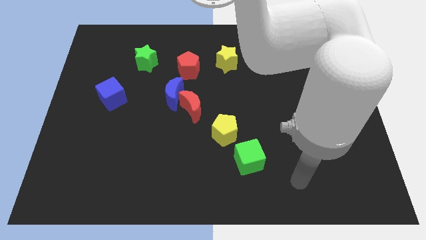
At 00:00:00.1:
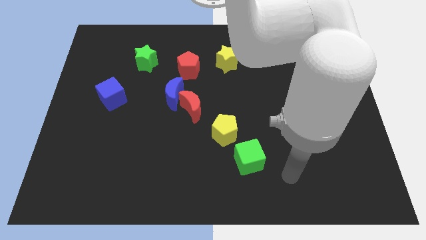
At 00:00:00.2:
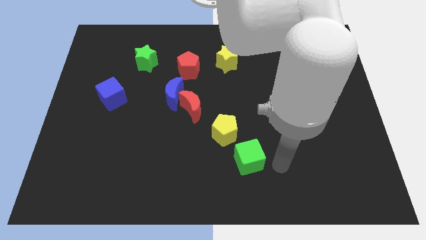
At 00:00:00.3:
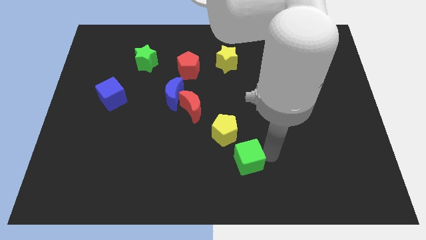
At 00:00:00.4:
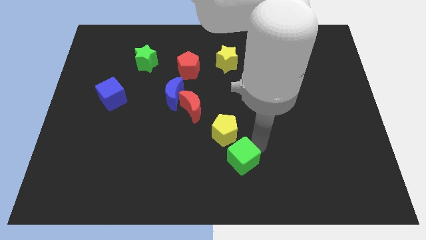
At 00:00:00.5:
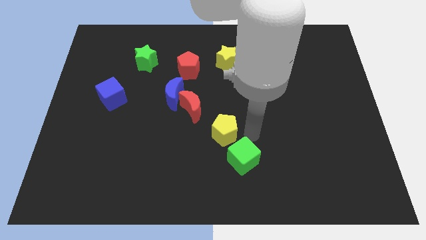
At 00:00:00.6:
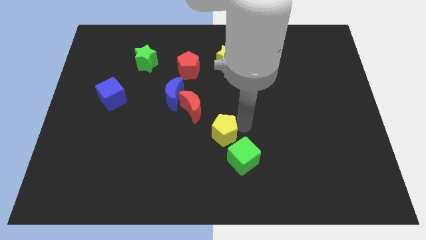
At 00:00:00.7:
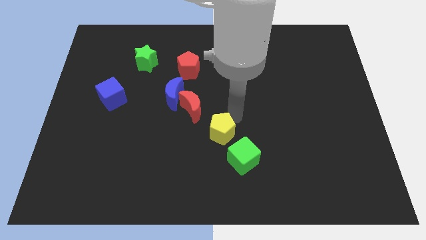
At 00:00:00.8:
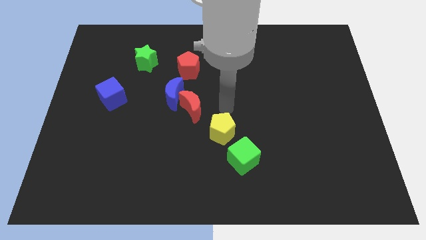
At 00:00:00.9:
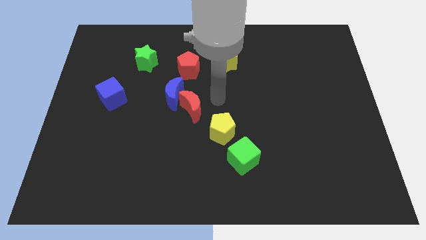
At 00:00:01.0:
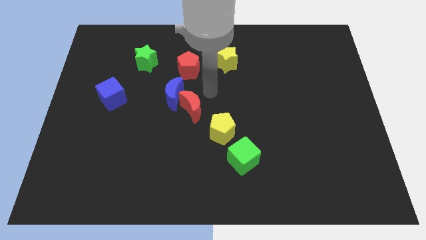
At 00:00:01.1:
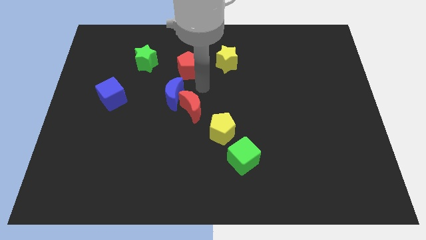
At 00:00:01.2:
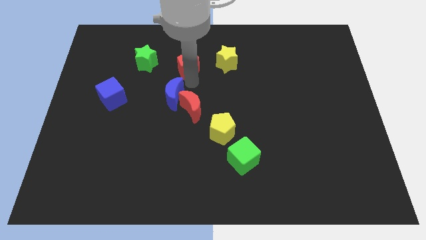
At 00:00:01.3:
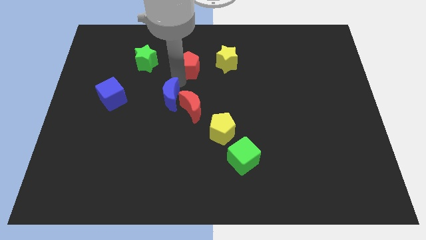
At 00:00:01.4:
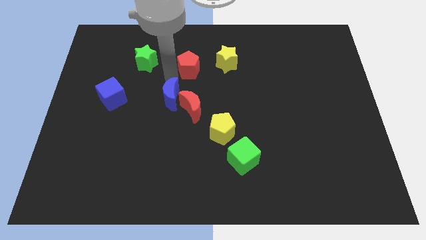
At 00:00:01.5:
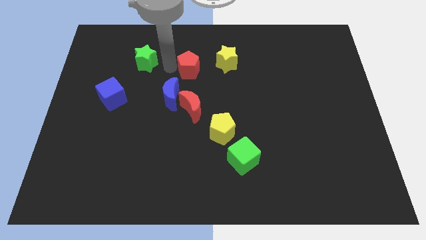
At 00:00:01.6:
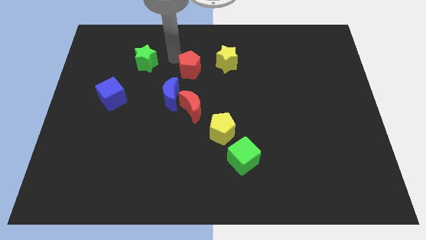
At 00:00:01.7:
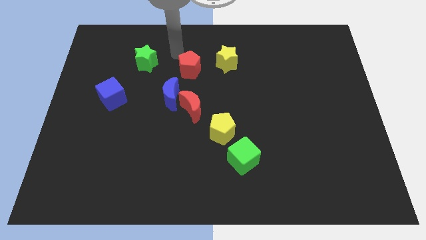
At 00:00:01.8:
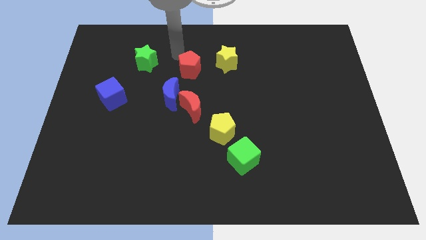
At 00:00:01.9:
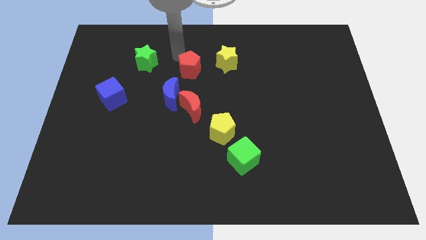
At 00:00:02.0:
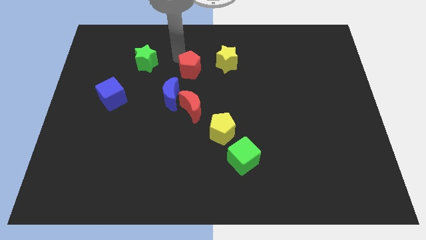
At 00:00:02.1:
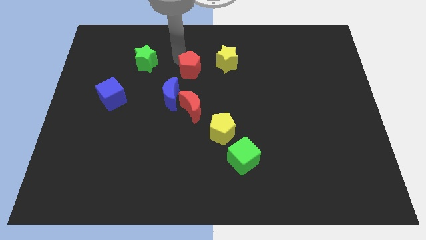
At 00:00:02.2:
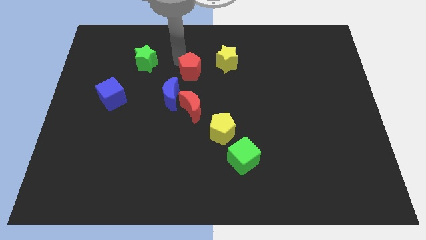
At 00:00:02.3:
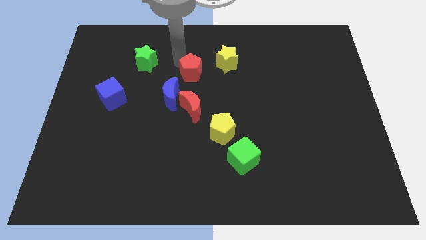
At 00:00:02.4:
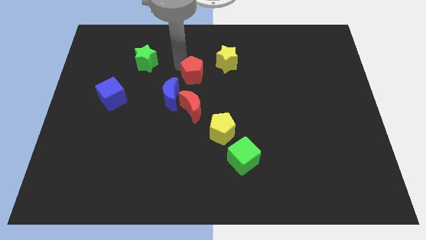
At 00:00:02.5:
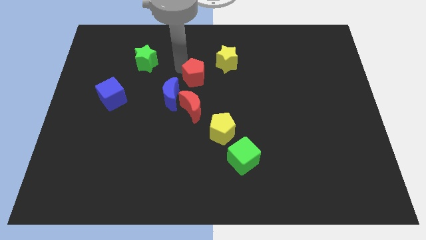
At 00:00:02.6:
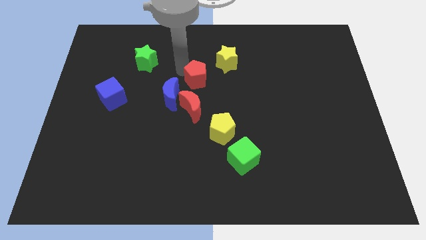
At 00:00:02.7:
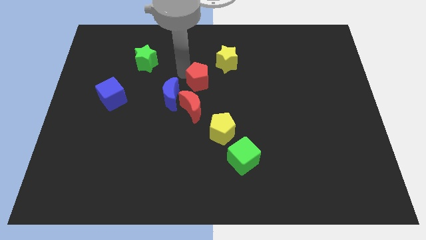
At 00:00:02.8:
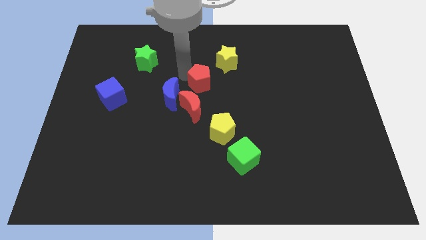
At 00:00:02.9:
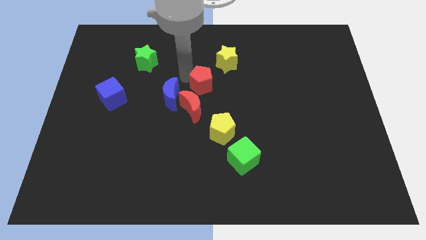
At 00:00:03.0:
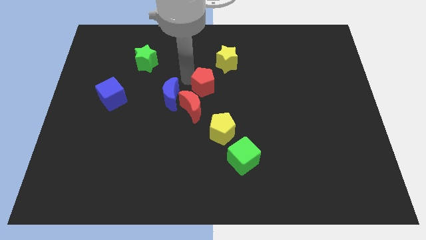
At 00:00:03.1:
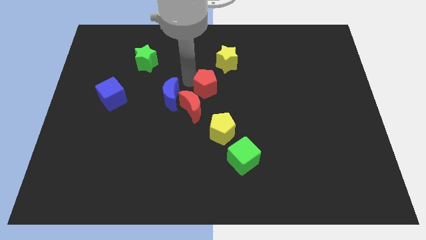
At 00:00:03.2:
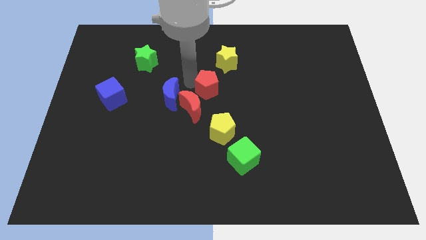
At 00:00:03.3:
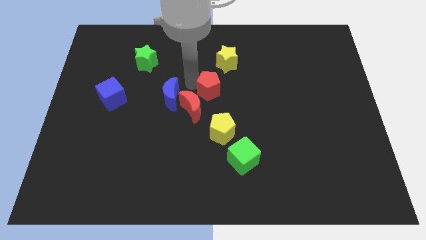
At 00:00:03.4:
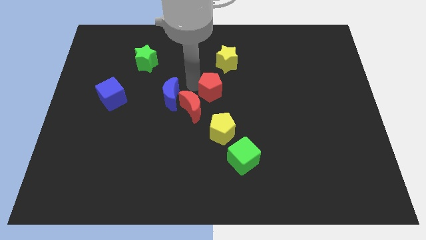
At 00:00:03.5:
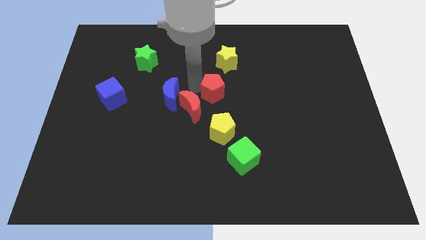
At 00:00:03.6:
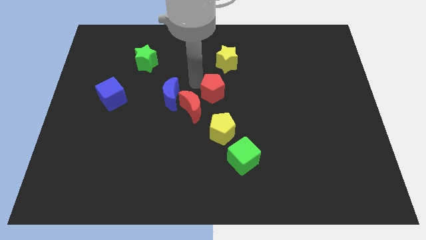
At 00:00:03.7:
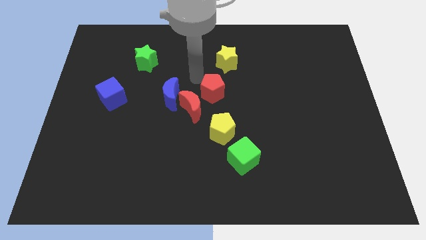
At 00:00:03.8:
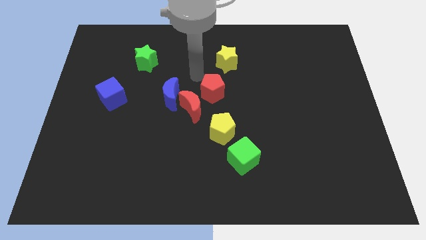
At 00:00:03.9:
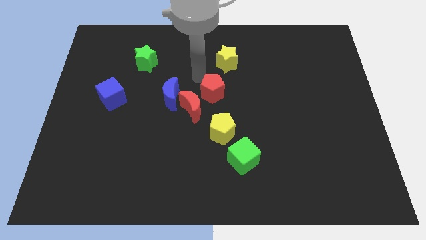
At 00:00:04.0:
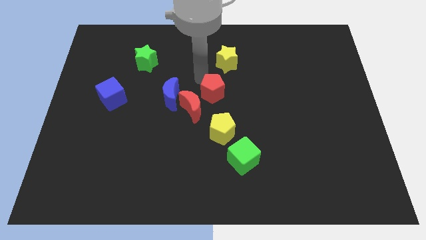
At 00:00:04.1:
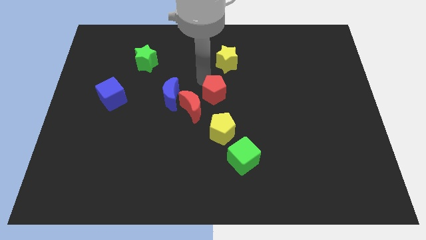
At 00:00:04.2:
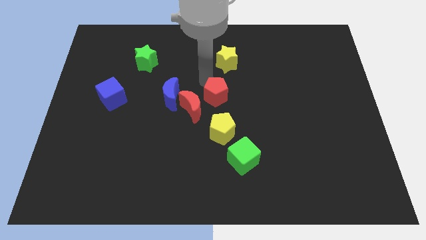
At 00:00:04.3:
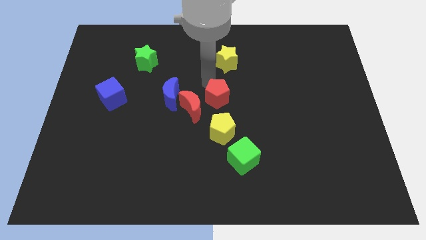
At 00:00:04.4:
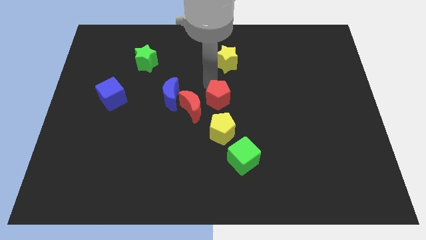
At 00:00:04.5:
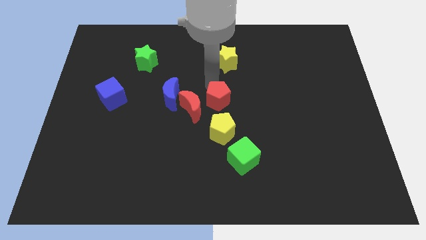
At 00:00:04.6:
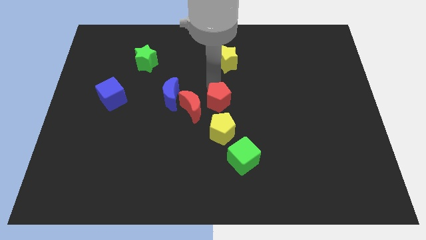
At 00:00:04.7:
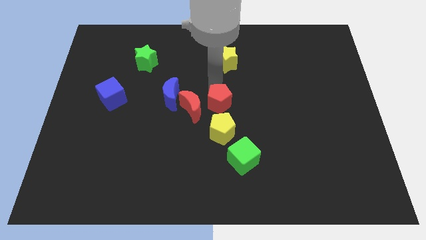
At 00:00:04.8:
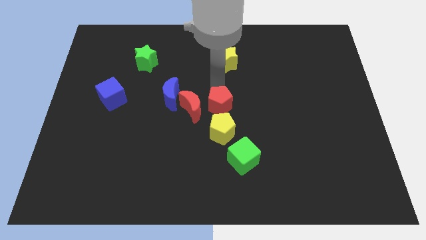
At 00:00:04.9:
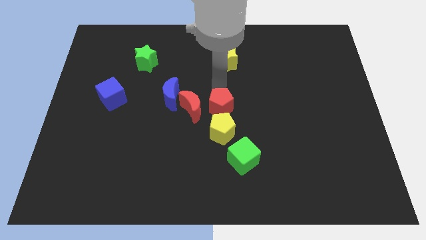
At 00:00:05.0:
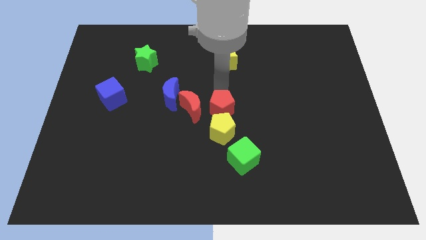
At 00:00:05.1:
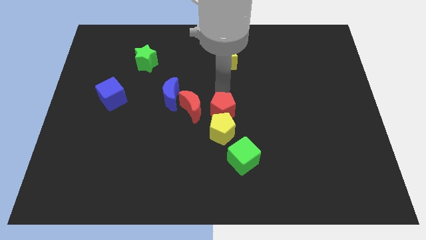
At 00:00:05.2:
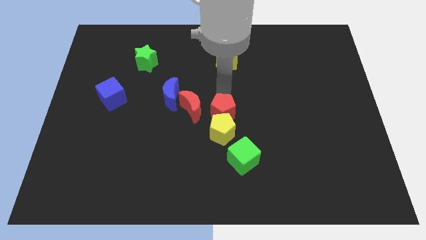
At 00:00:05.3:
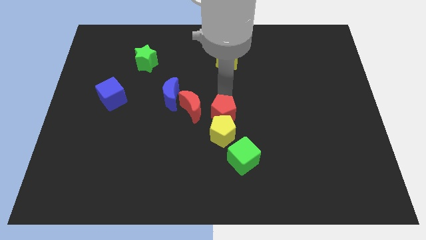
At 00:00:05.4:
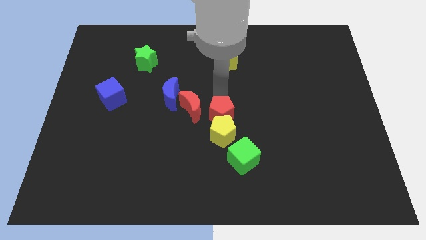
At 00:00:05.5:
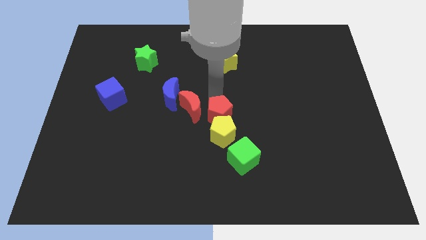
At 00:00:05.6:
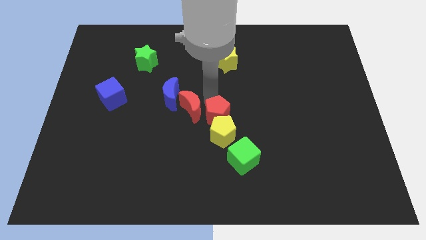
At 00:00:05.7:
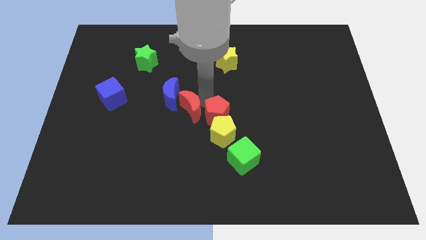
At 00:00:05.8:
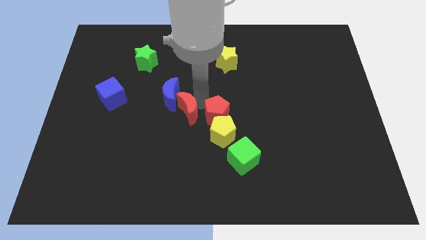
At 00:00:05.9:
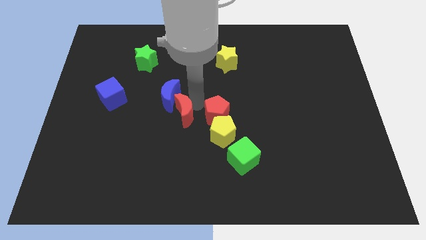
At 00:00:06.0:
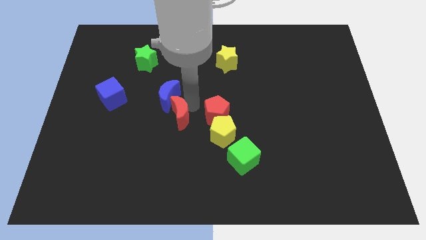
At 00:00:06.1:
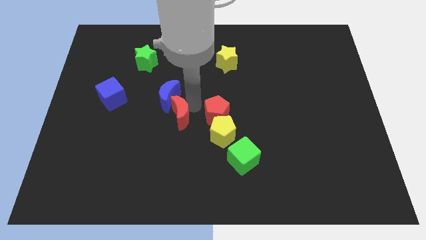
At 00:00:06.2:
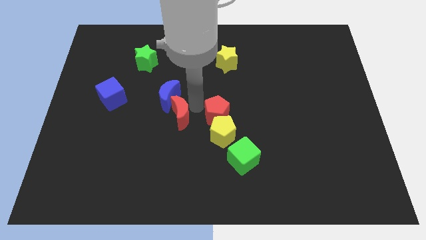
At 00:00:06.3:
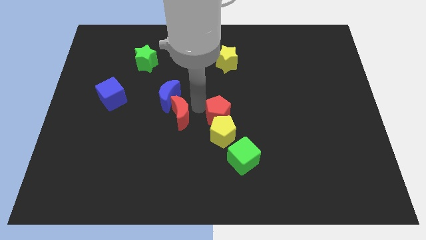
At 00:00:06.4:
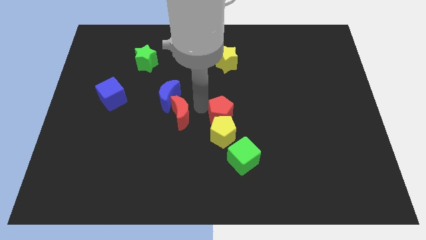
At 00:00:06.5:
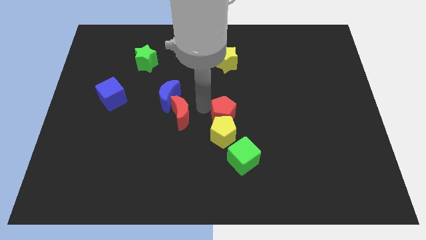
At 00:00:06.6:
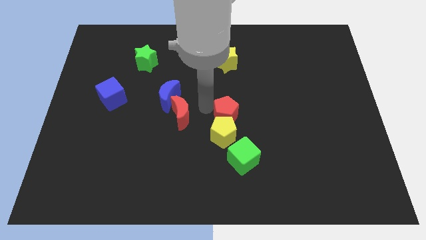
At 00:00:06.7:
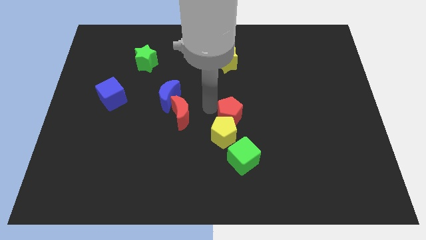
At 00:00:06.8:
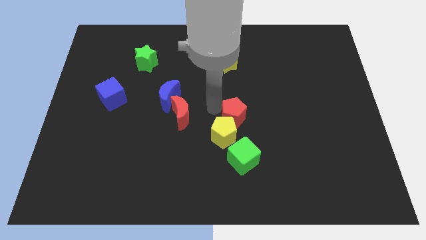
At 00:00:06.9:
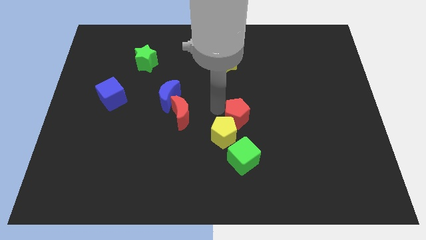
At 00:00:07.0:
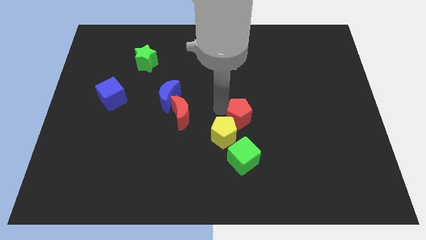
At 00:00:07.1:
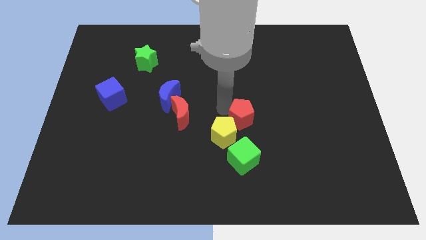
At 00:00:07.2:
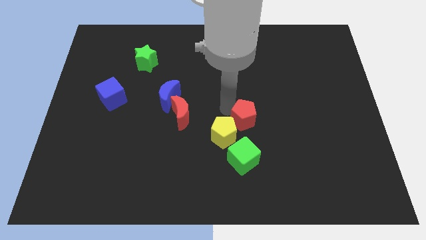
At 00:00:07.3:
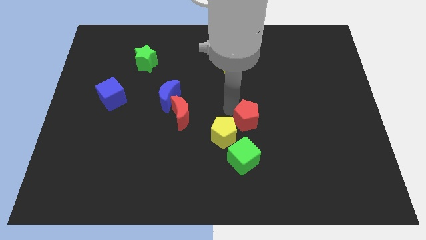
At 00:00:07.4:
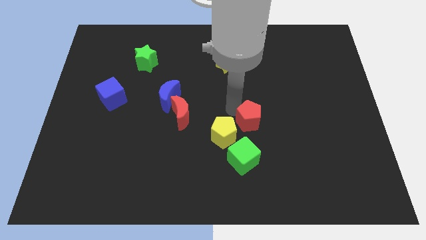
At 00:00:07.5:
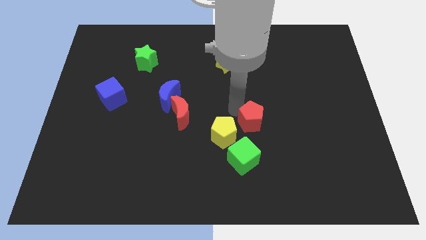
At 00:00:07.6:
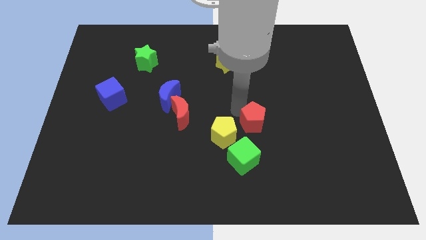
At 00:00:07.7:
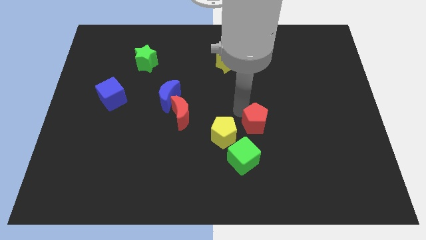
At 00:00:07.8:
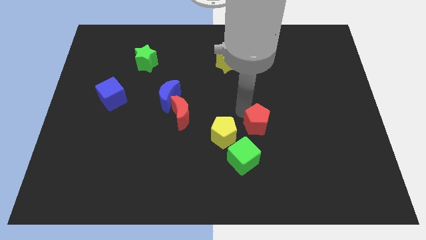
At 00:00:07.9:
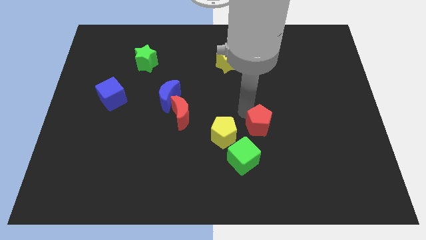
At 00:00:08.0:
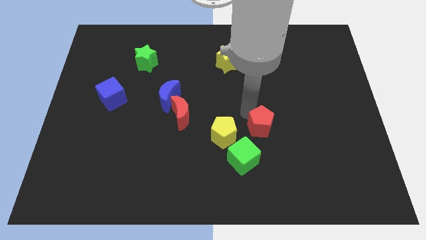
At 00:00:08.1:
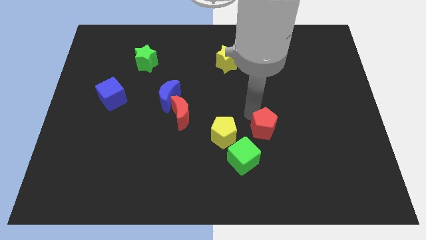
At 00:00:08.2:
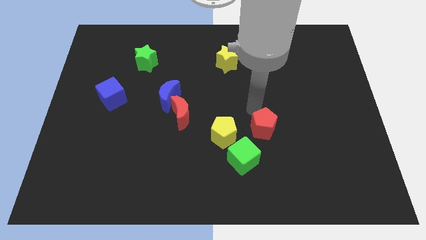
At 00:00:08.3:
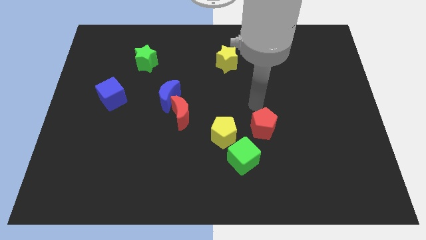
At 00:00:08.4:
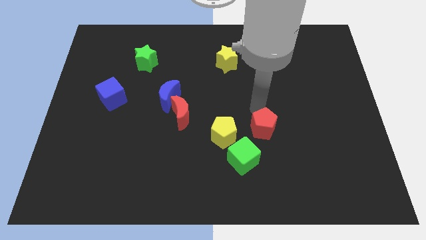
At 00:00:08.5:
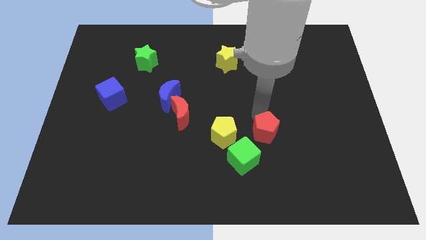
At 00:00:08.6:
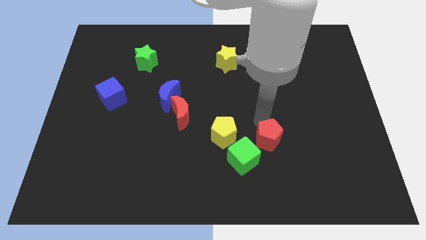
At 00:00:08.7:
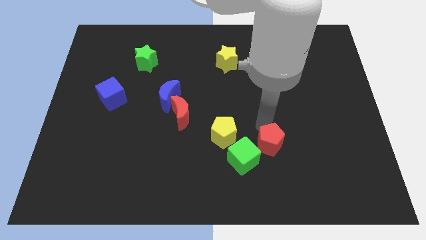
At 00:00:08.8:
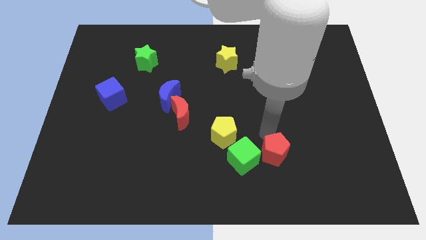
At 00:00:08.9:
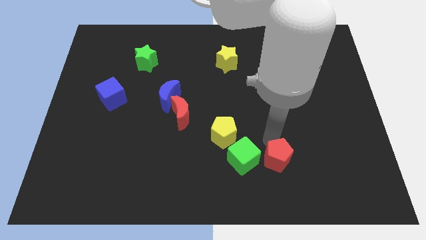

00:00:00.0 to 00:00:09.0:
push the red pentagon diagonally down and to the right of the green cube
